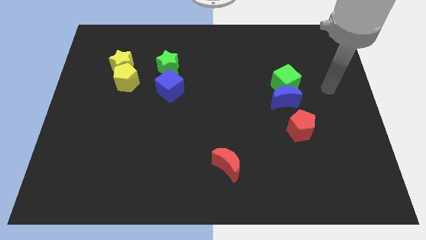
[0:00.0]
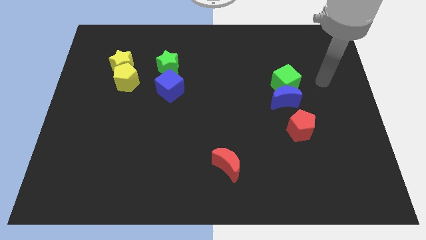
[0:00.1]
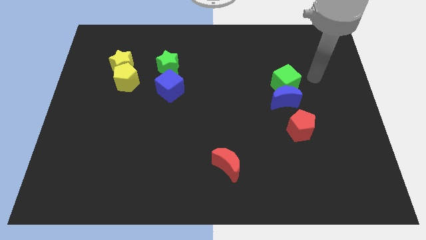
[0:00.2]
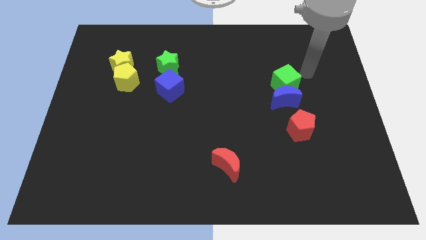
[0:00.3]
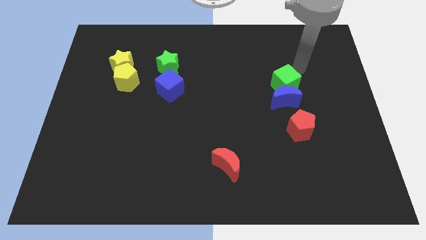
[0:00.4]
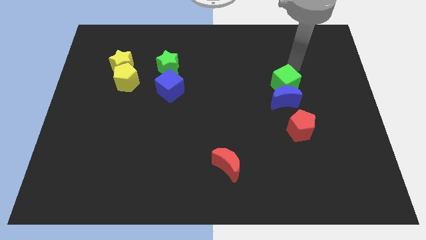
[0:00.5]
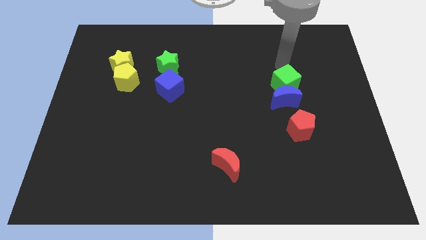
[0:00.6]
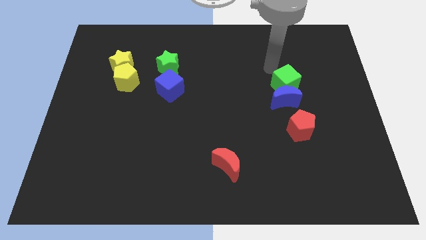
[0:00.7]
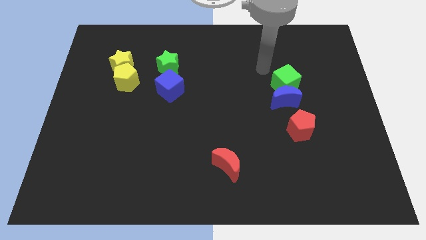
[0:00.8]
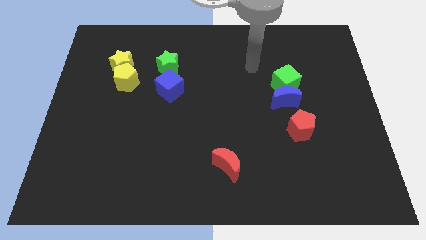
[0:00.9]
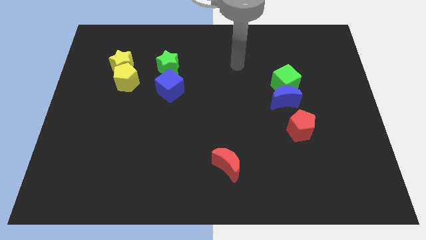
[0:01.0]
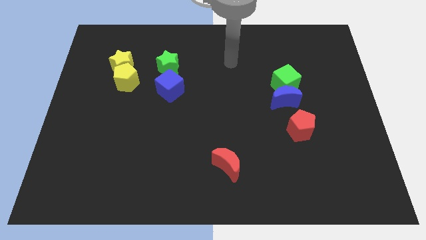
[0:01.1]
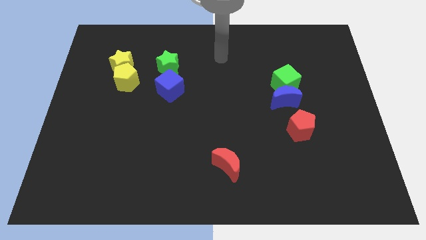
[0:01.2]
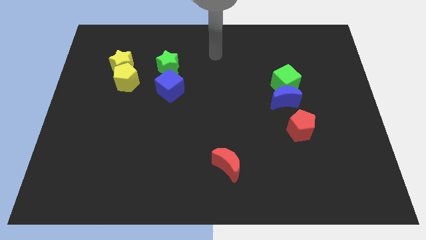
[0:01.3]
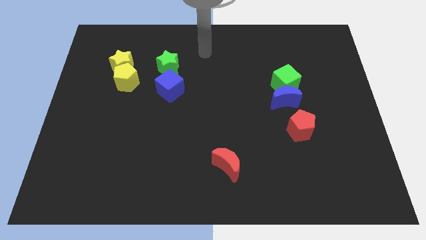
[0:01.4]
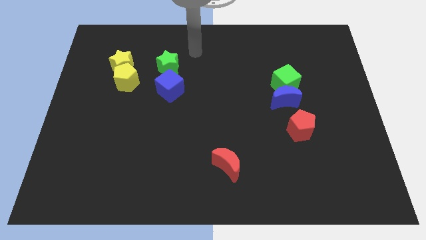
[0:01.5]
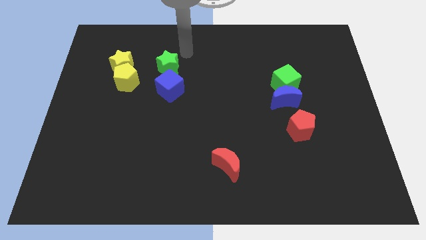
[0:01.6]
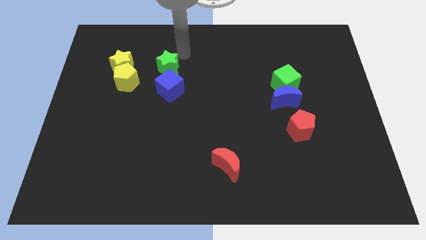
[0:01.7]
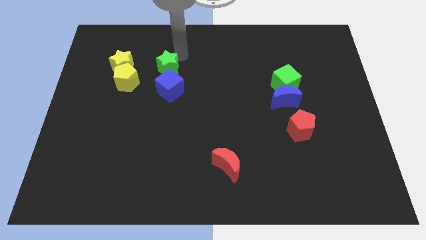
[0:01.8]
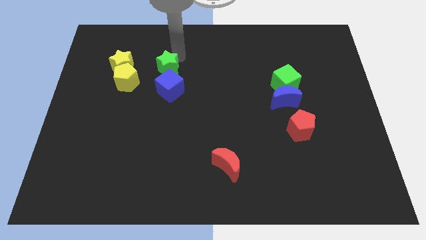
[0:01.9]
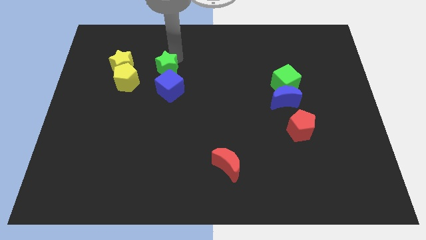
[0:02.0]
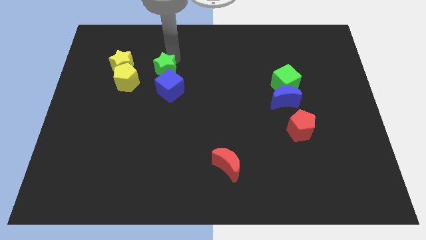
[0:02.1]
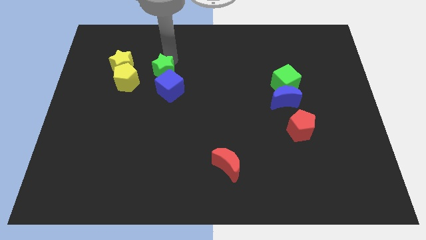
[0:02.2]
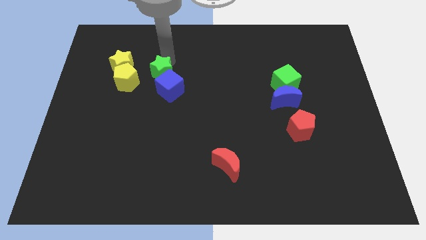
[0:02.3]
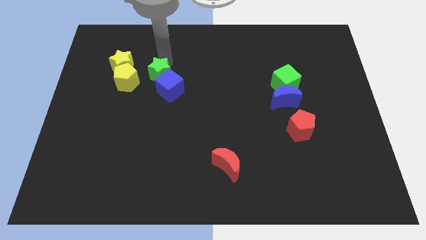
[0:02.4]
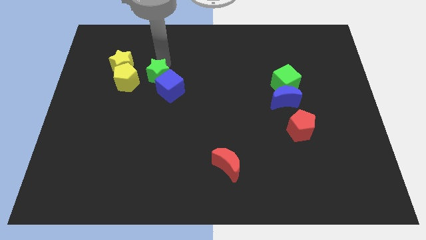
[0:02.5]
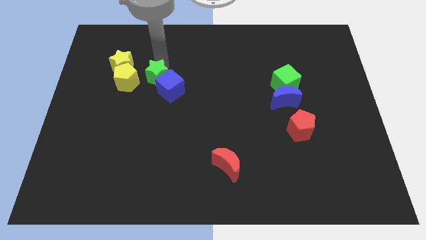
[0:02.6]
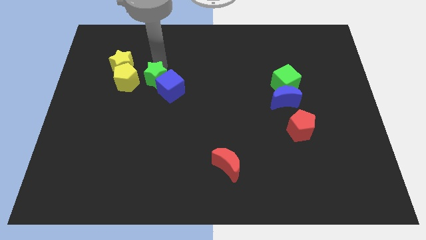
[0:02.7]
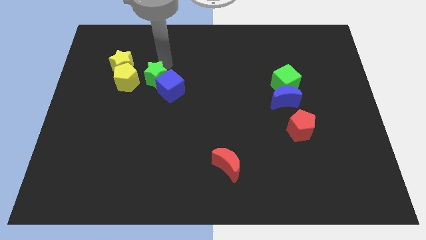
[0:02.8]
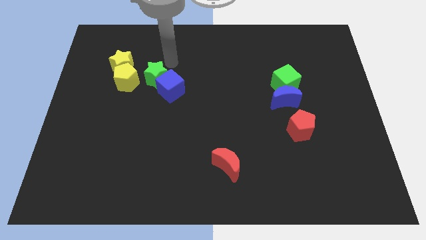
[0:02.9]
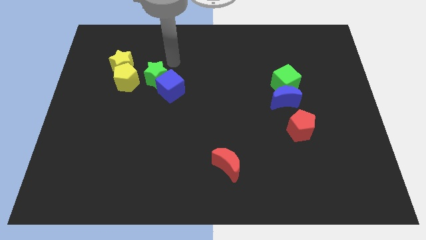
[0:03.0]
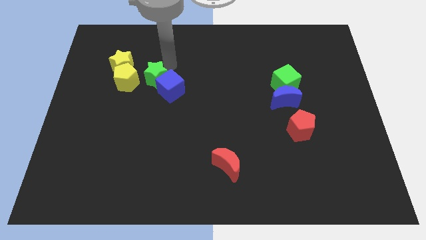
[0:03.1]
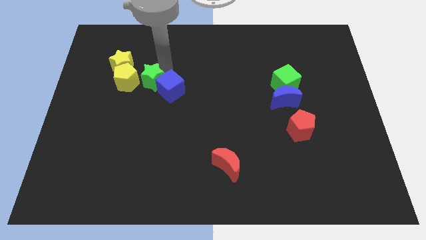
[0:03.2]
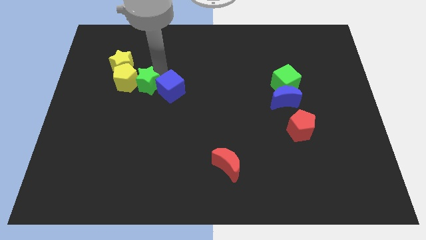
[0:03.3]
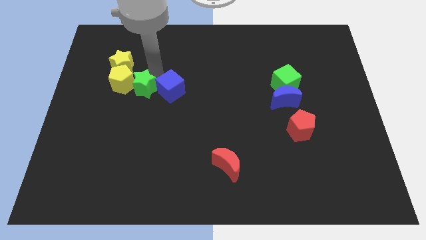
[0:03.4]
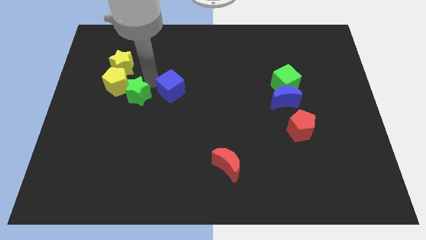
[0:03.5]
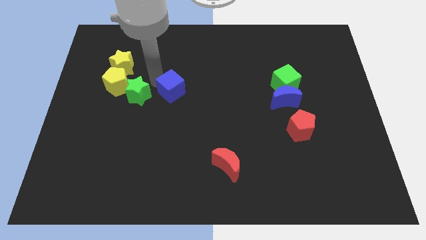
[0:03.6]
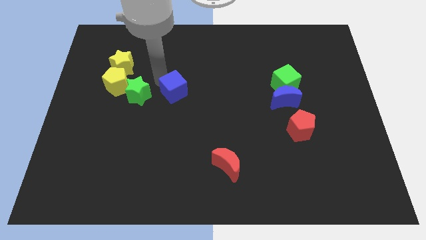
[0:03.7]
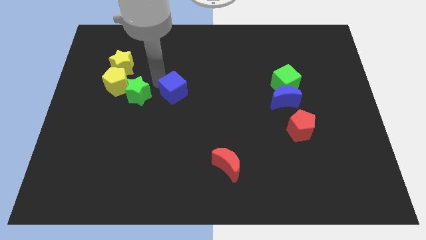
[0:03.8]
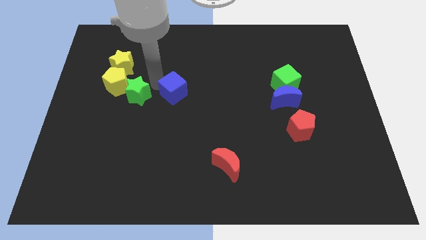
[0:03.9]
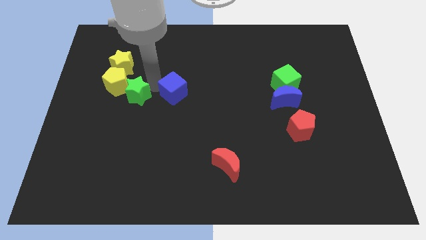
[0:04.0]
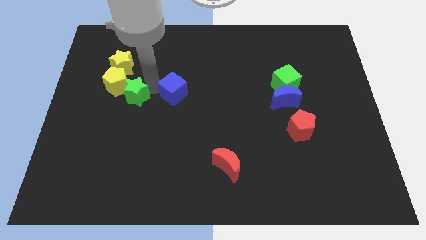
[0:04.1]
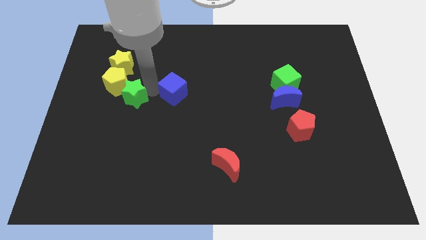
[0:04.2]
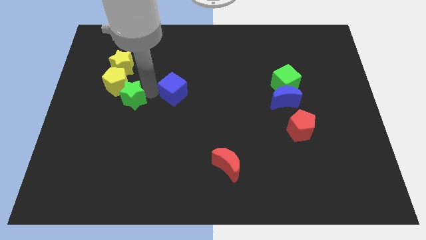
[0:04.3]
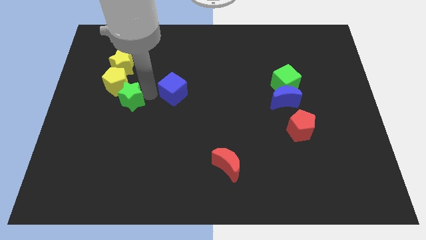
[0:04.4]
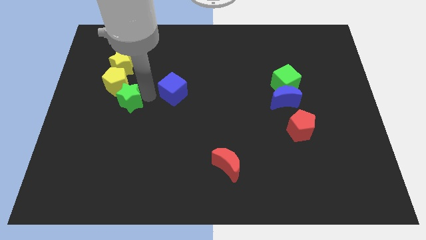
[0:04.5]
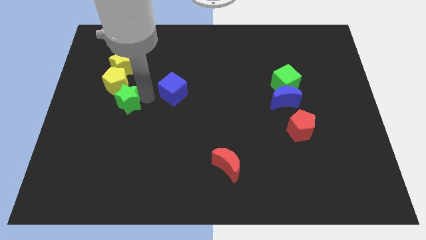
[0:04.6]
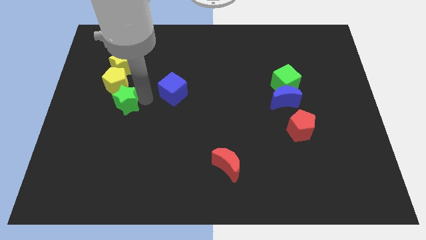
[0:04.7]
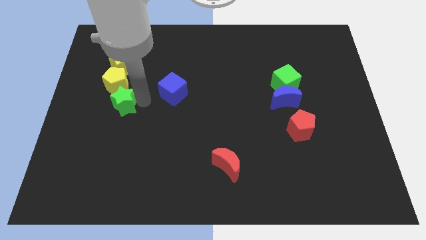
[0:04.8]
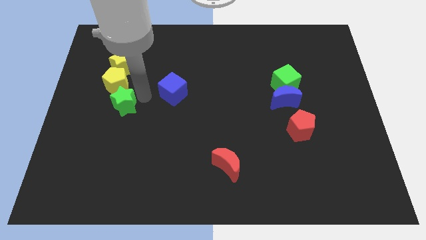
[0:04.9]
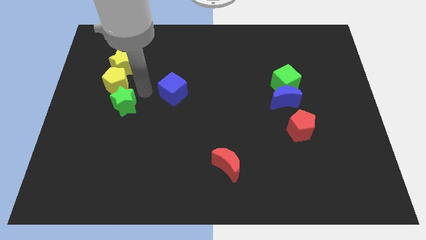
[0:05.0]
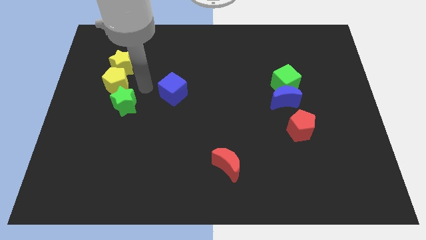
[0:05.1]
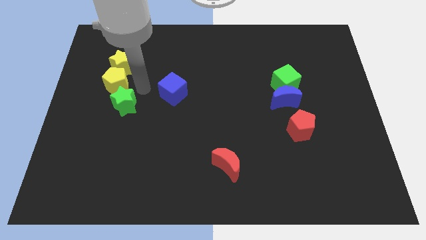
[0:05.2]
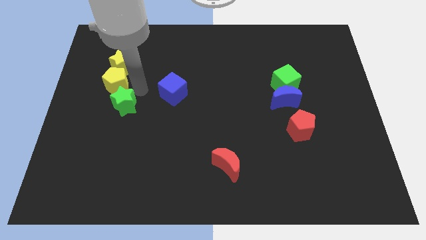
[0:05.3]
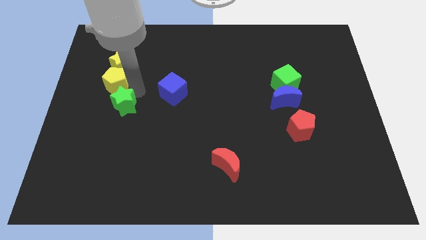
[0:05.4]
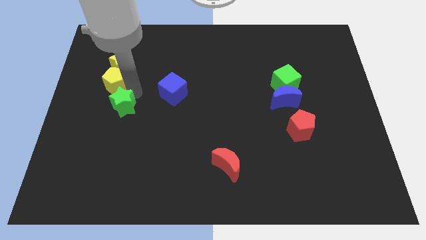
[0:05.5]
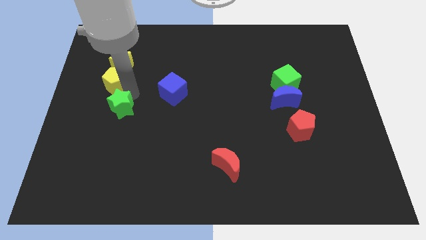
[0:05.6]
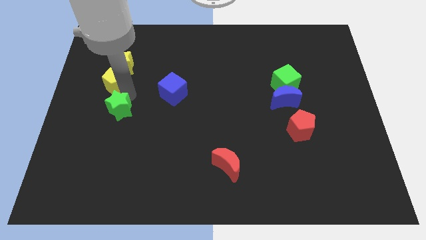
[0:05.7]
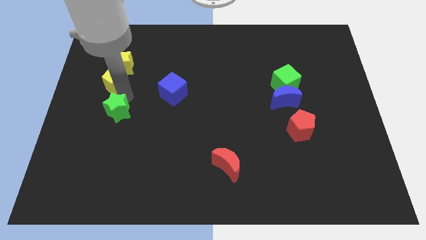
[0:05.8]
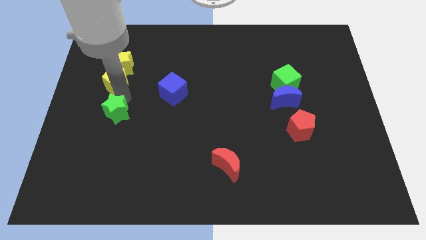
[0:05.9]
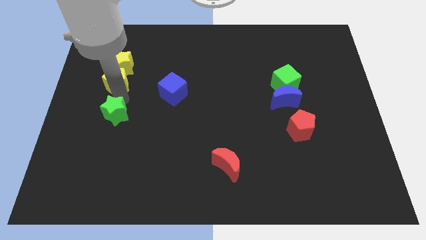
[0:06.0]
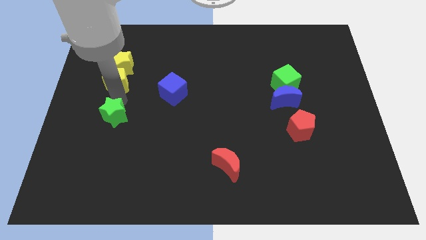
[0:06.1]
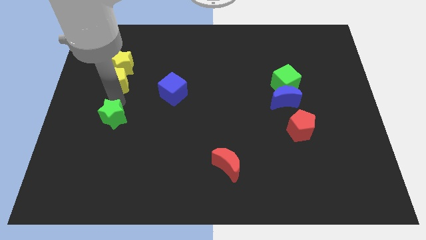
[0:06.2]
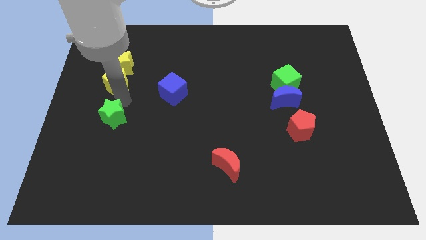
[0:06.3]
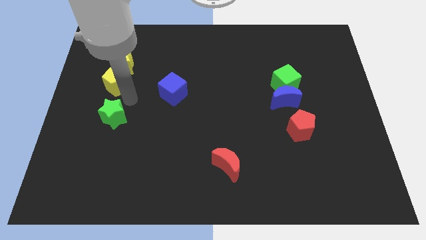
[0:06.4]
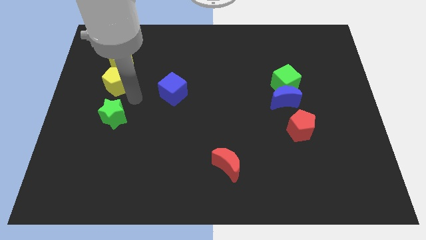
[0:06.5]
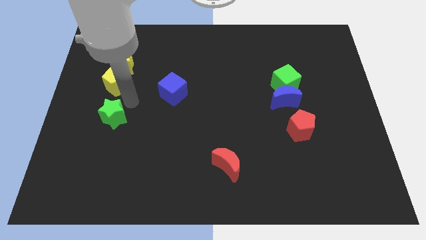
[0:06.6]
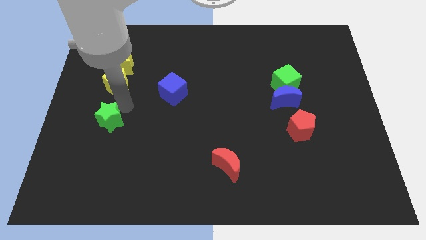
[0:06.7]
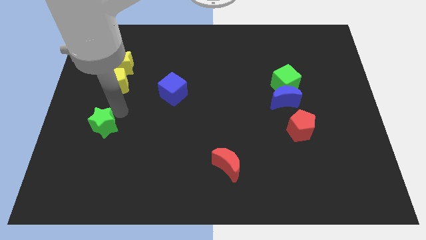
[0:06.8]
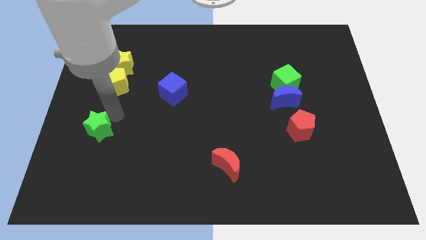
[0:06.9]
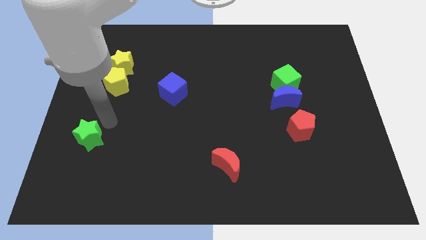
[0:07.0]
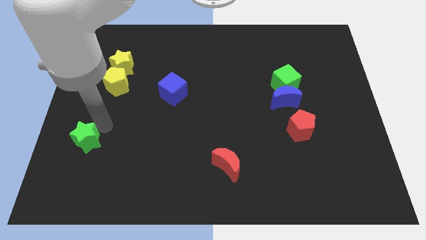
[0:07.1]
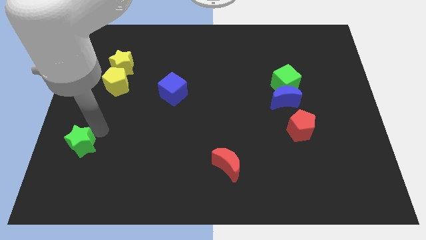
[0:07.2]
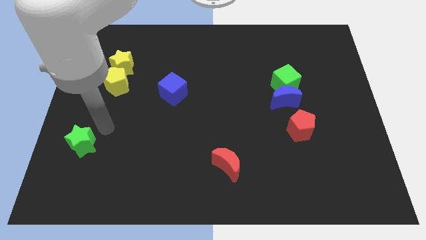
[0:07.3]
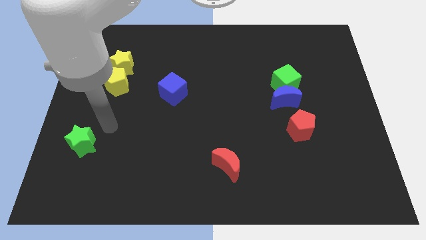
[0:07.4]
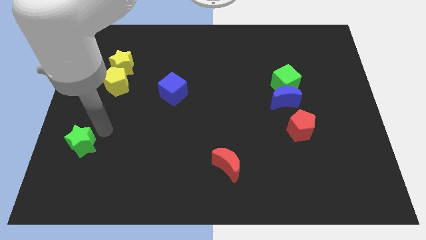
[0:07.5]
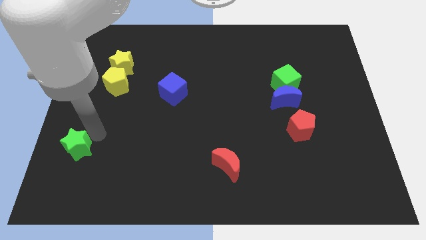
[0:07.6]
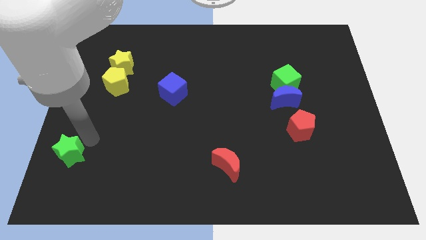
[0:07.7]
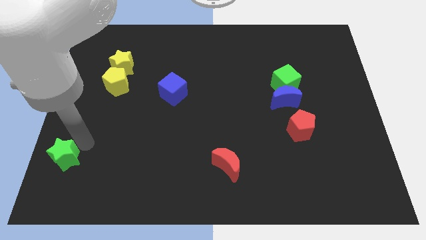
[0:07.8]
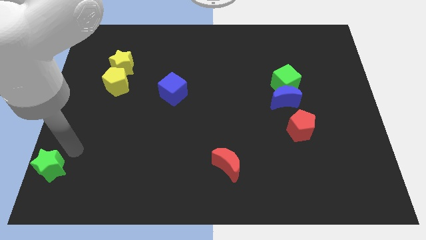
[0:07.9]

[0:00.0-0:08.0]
slide the green star to the bottom left
